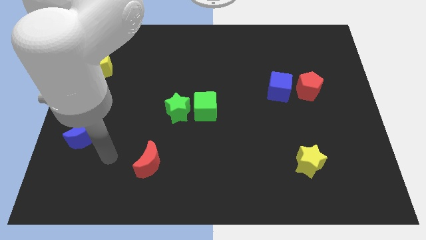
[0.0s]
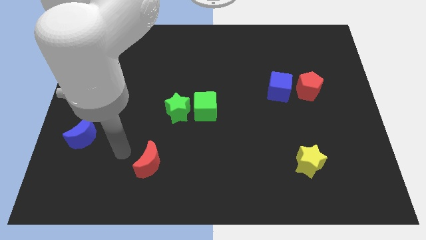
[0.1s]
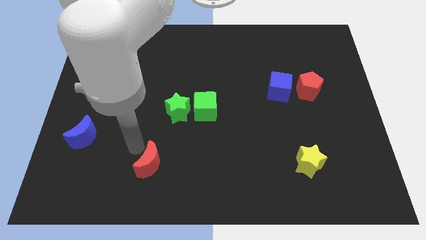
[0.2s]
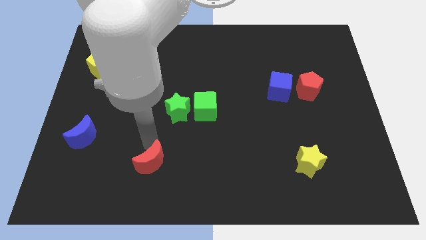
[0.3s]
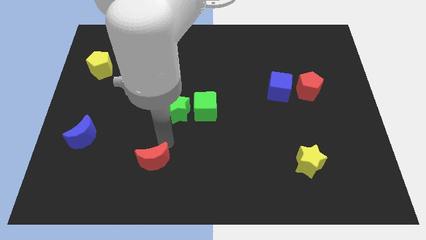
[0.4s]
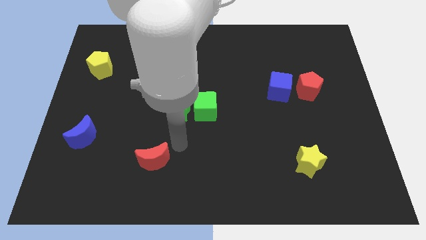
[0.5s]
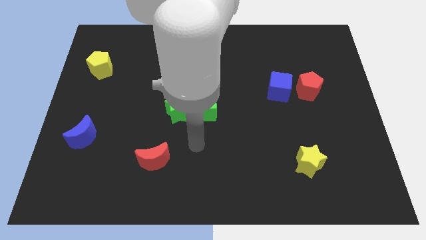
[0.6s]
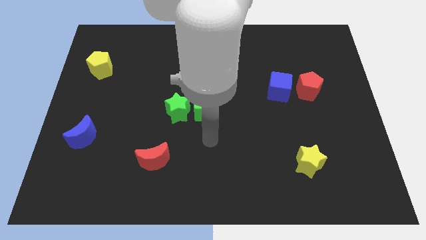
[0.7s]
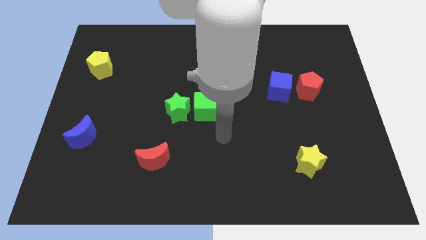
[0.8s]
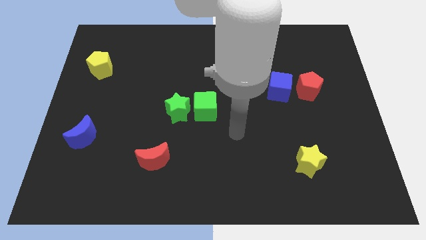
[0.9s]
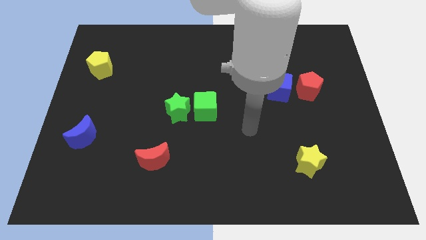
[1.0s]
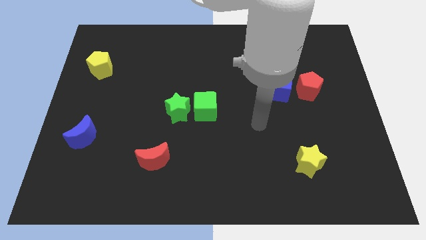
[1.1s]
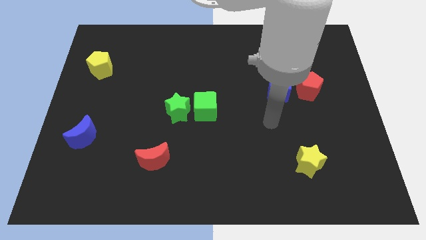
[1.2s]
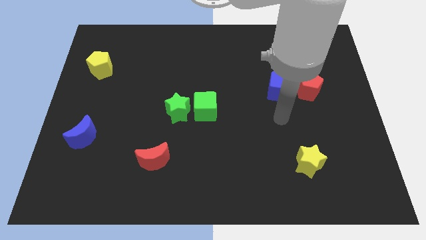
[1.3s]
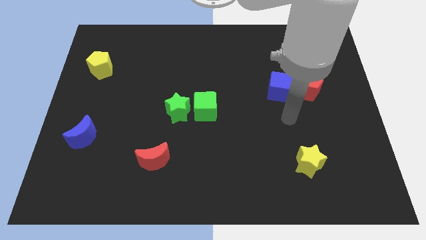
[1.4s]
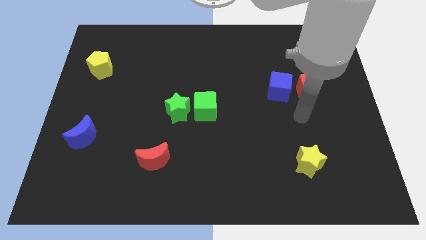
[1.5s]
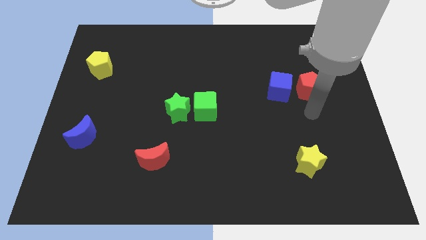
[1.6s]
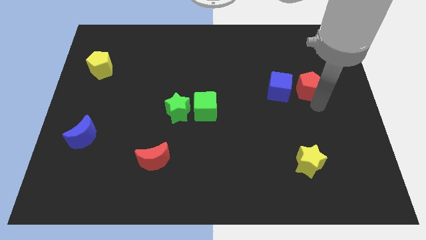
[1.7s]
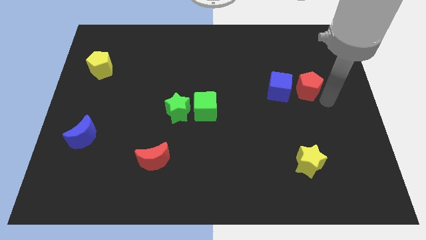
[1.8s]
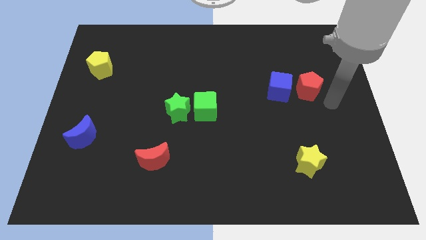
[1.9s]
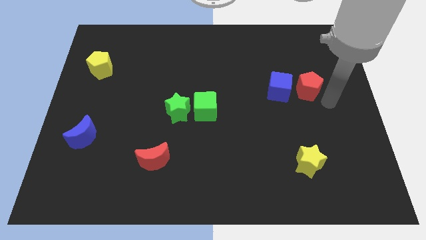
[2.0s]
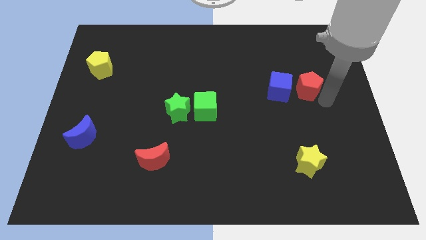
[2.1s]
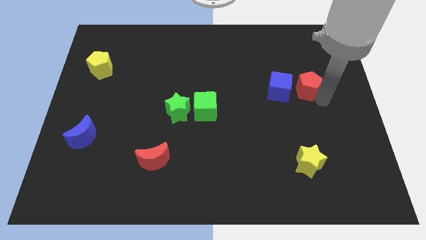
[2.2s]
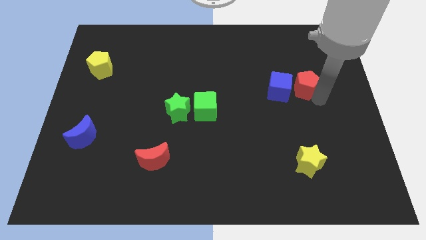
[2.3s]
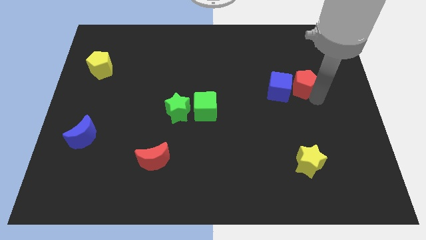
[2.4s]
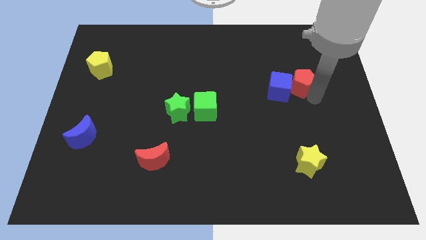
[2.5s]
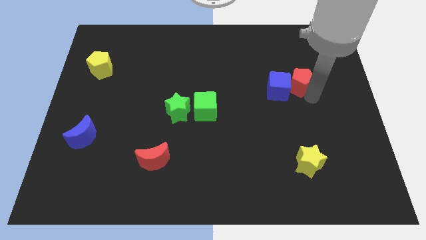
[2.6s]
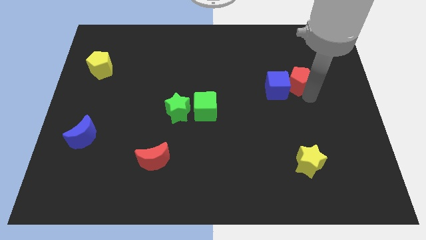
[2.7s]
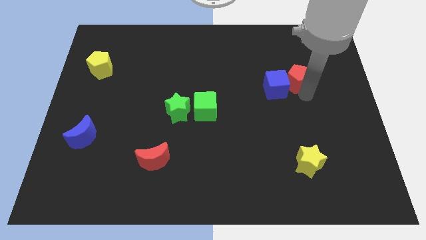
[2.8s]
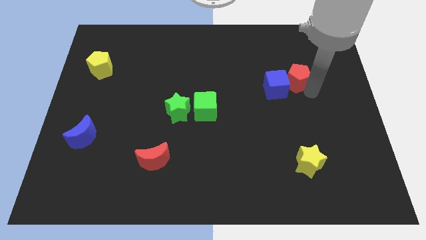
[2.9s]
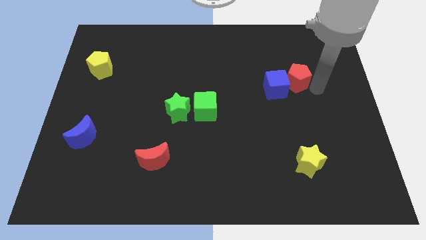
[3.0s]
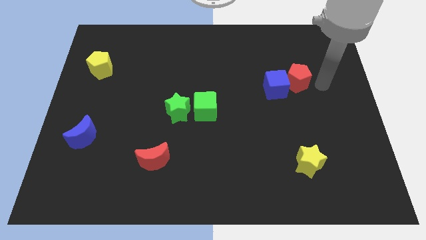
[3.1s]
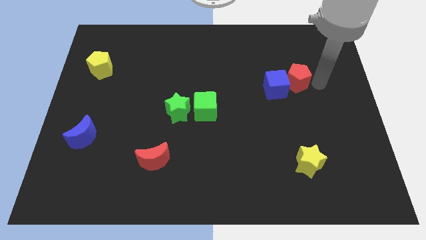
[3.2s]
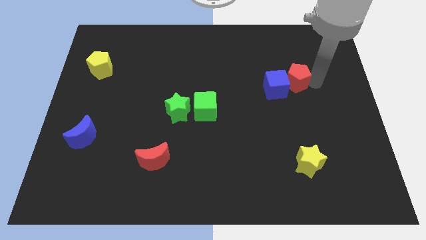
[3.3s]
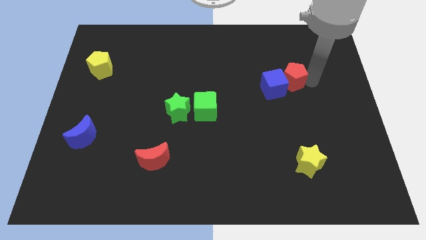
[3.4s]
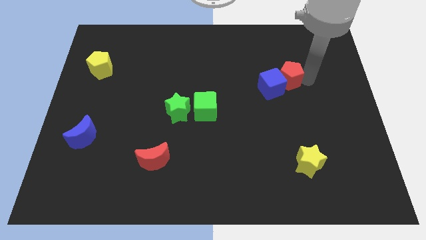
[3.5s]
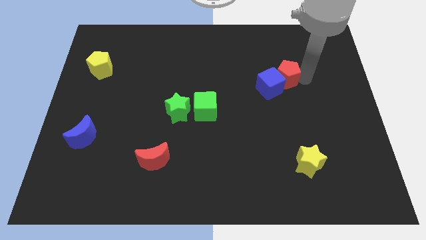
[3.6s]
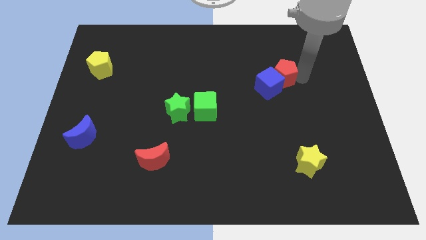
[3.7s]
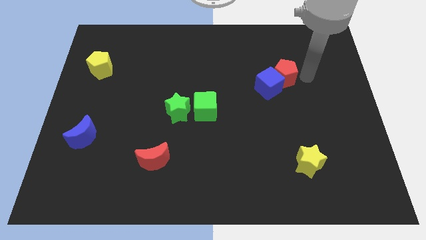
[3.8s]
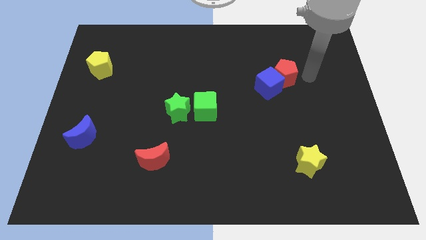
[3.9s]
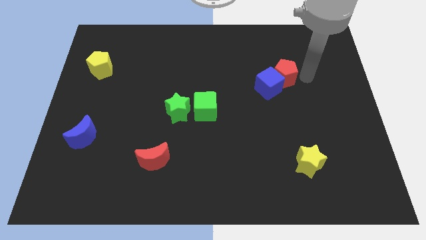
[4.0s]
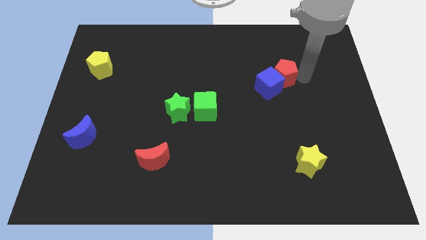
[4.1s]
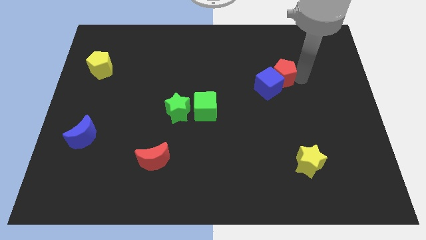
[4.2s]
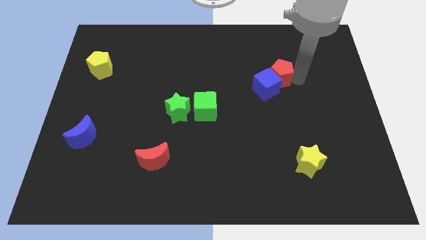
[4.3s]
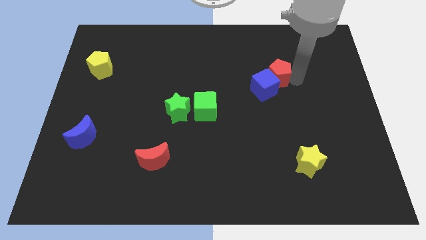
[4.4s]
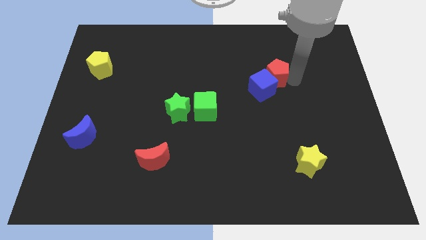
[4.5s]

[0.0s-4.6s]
slightly slide the red pentagon to the left

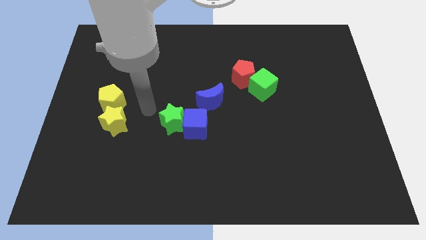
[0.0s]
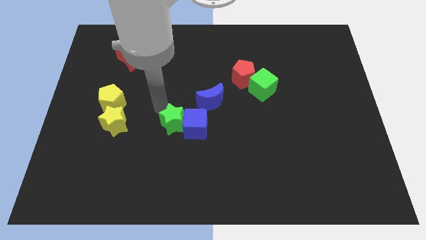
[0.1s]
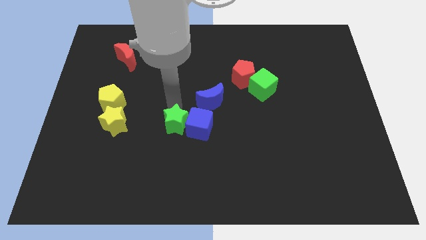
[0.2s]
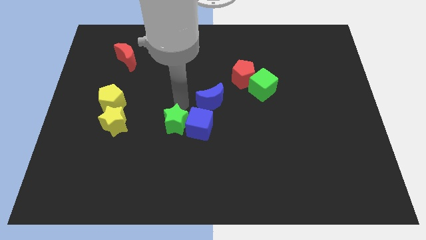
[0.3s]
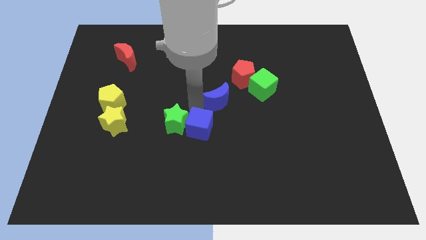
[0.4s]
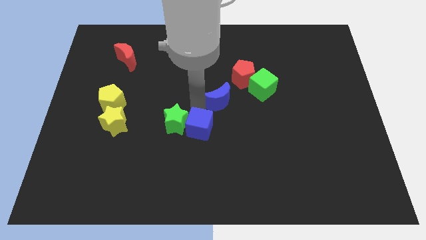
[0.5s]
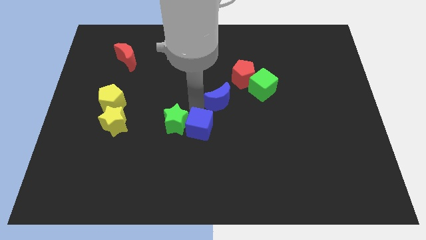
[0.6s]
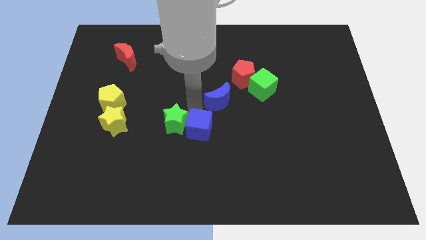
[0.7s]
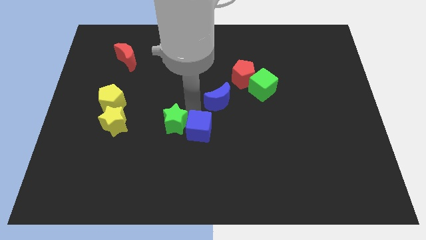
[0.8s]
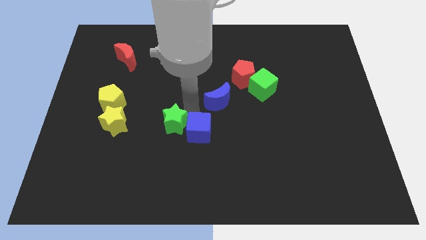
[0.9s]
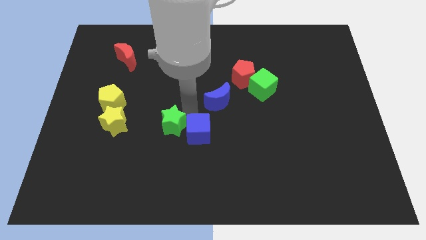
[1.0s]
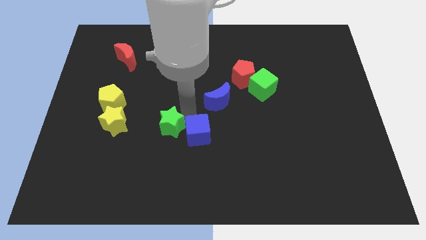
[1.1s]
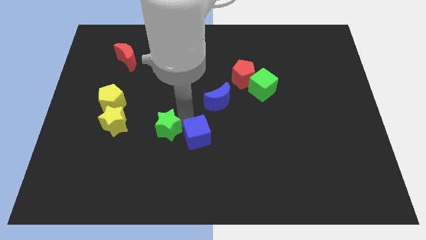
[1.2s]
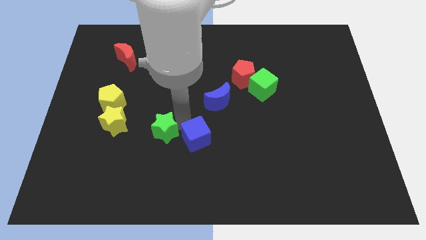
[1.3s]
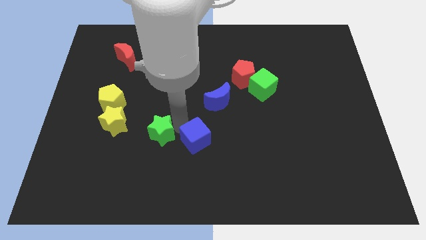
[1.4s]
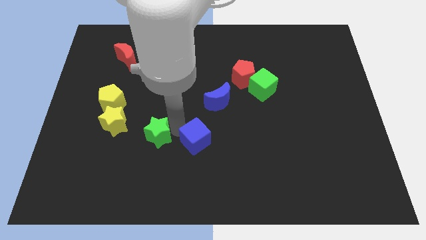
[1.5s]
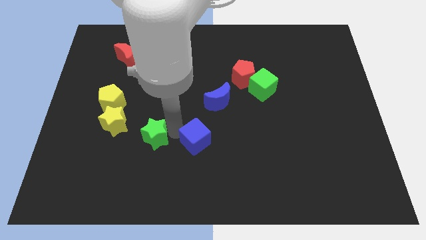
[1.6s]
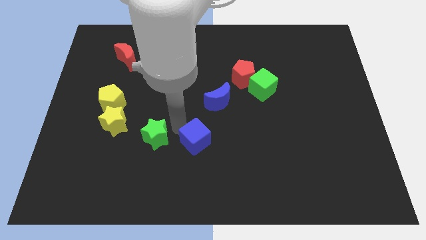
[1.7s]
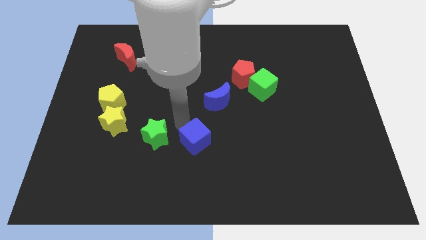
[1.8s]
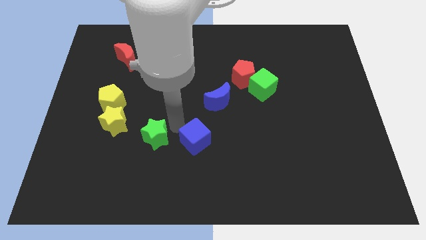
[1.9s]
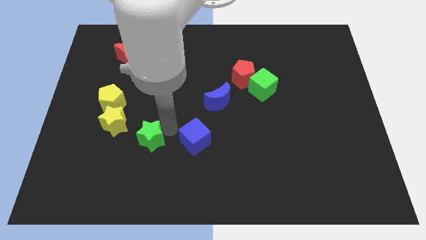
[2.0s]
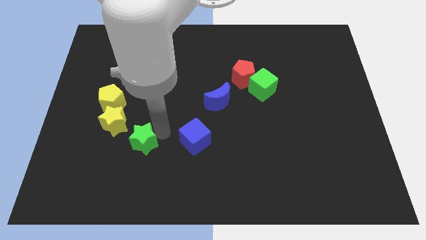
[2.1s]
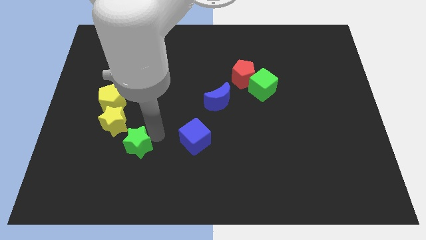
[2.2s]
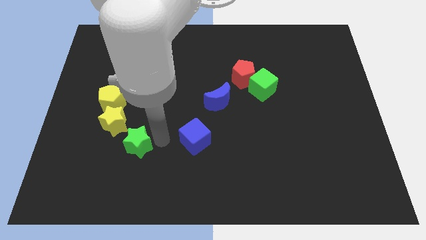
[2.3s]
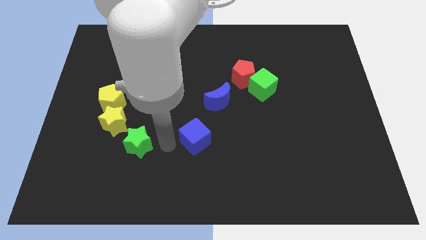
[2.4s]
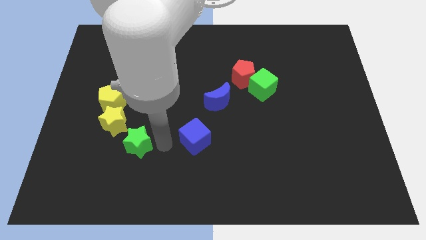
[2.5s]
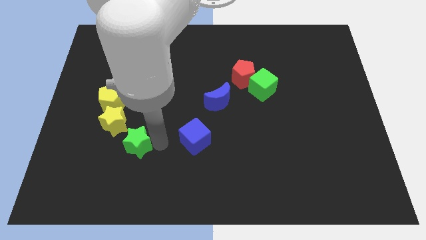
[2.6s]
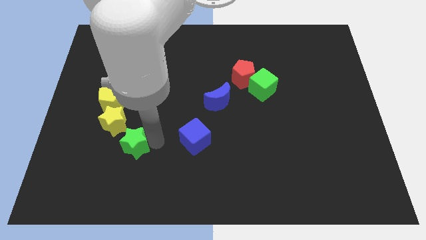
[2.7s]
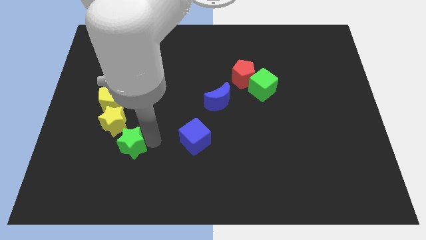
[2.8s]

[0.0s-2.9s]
move the green star to the left slightly

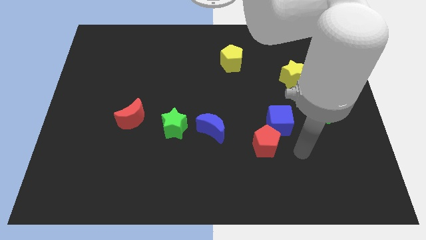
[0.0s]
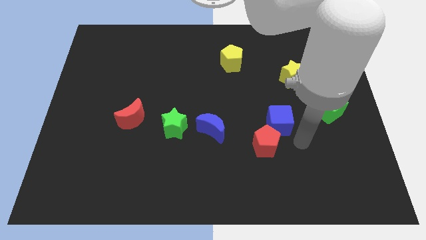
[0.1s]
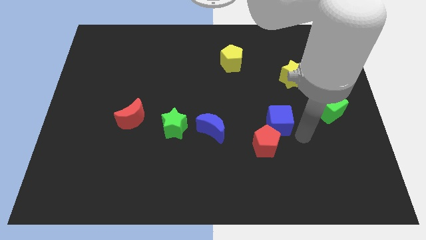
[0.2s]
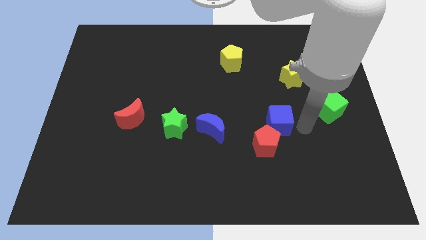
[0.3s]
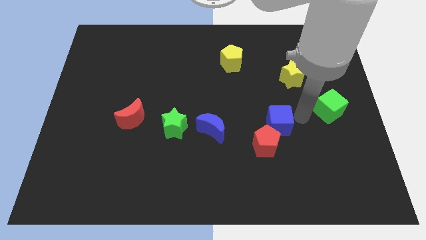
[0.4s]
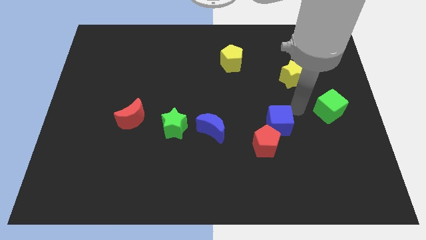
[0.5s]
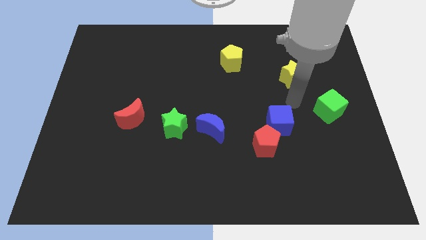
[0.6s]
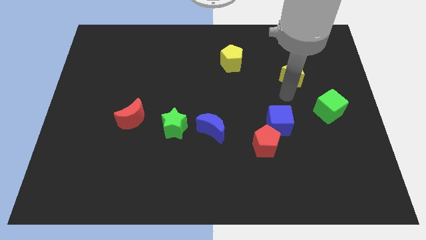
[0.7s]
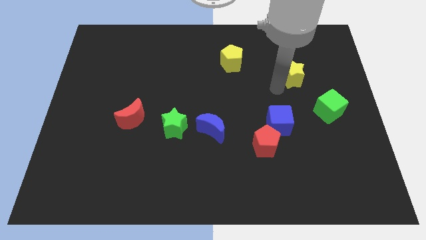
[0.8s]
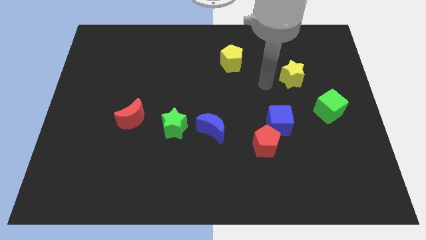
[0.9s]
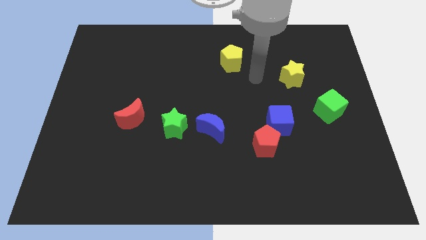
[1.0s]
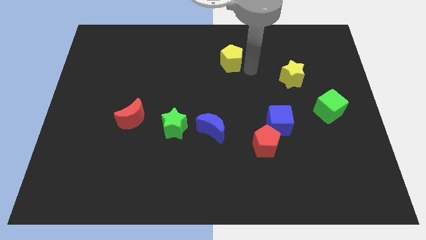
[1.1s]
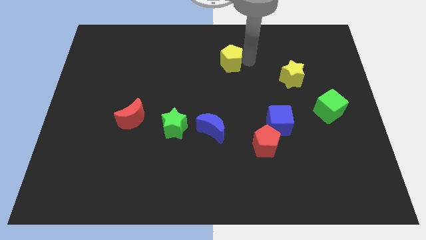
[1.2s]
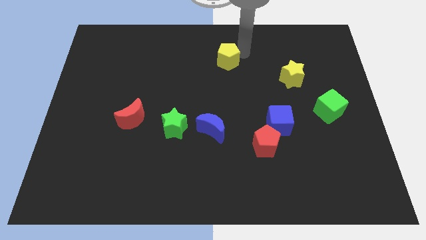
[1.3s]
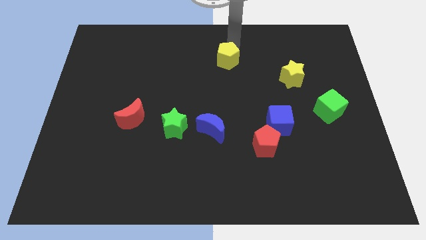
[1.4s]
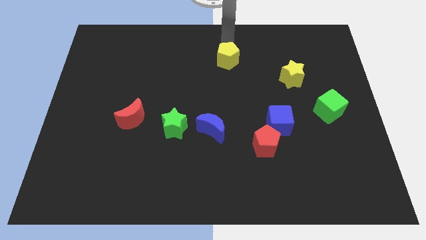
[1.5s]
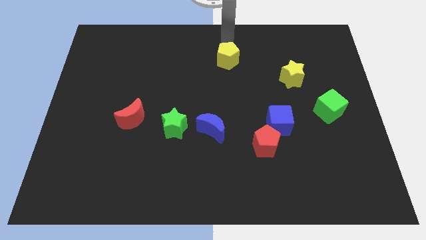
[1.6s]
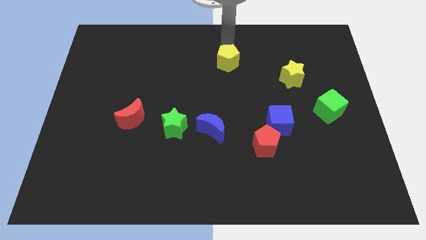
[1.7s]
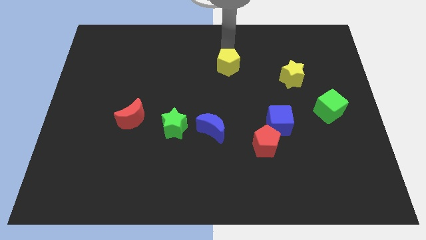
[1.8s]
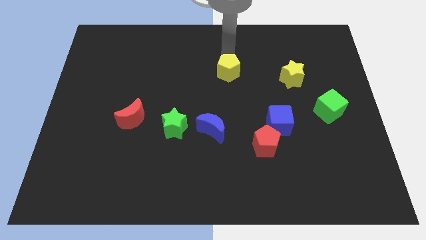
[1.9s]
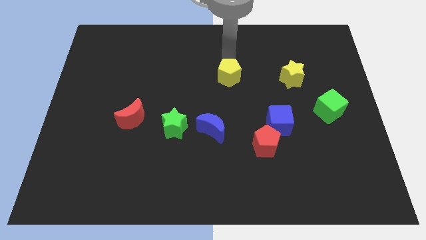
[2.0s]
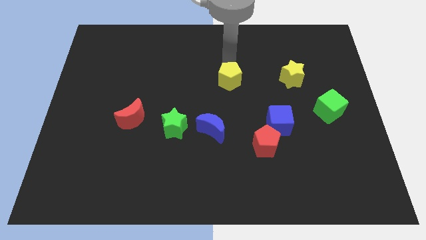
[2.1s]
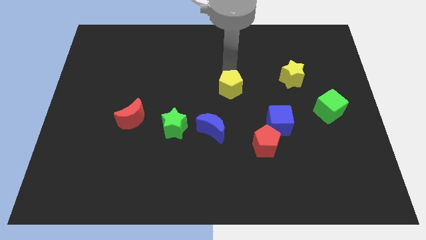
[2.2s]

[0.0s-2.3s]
slightly push the yellow pentagon downwards
